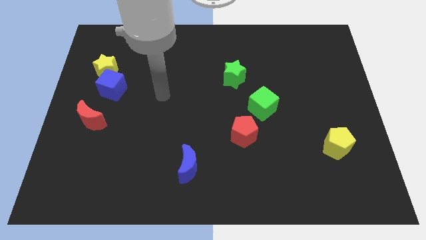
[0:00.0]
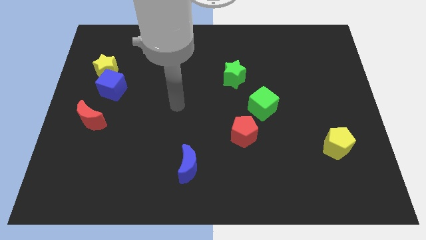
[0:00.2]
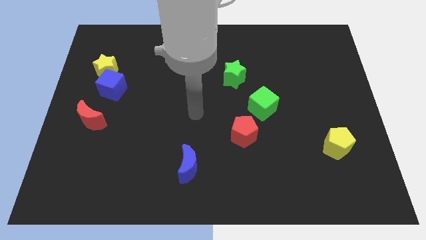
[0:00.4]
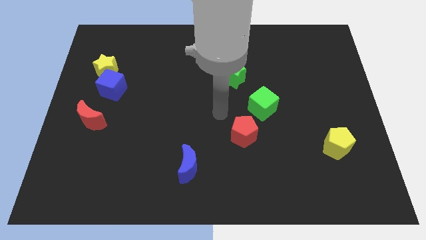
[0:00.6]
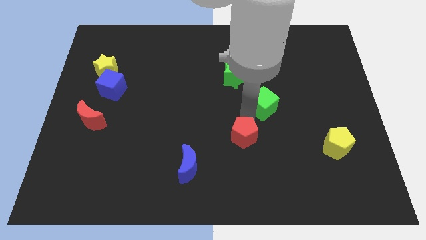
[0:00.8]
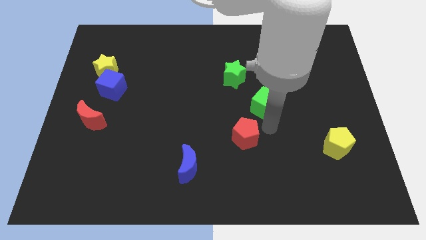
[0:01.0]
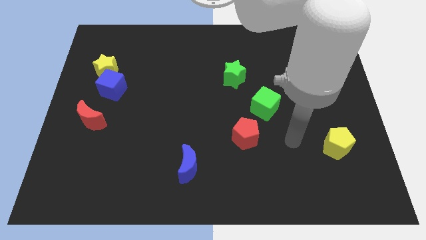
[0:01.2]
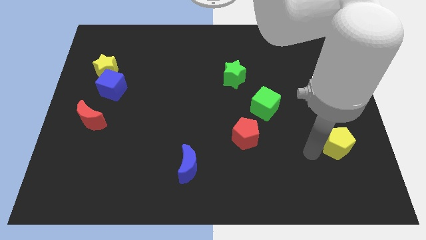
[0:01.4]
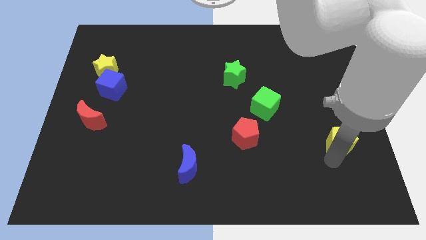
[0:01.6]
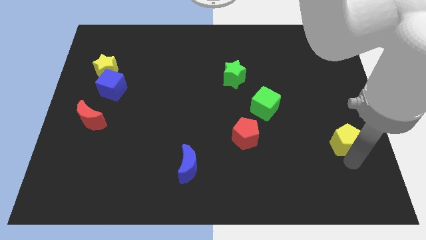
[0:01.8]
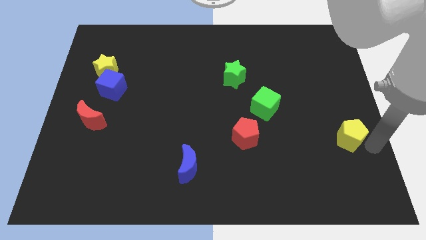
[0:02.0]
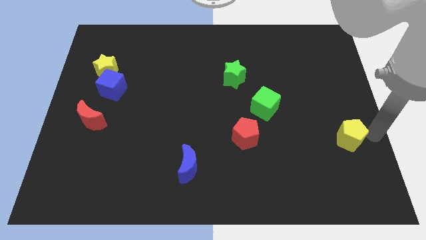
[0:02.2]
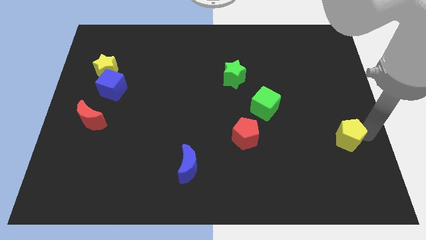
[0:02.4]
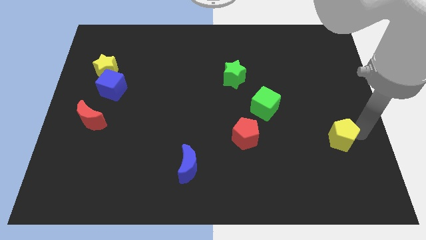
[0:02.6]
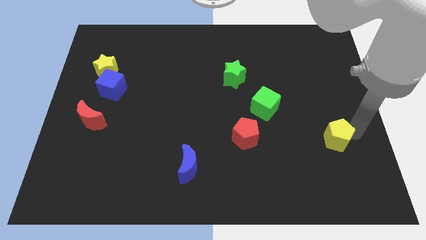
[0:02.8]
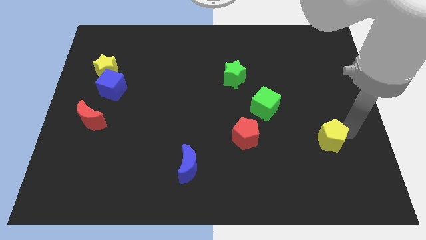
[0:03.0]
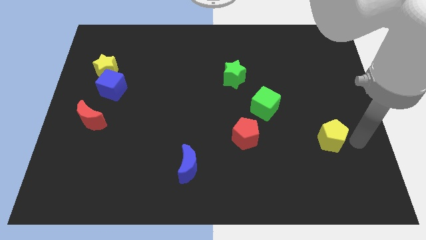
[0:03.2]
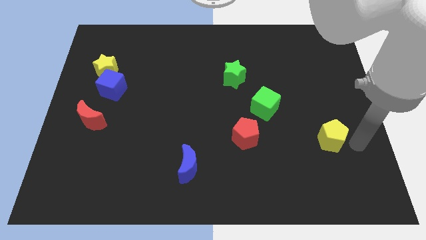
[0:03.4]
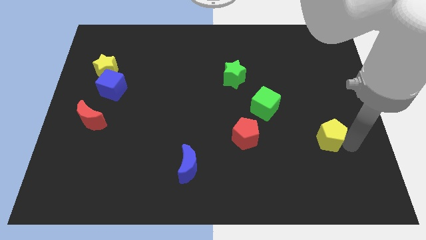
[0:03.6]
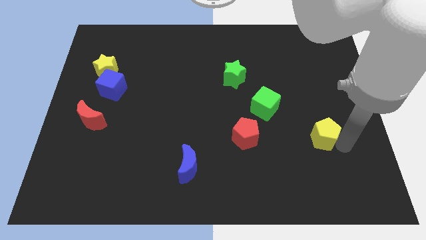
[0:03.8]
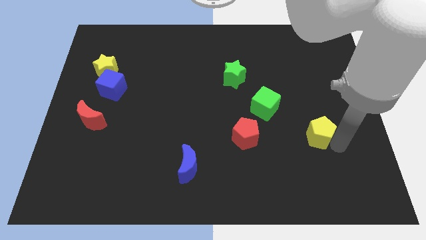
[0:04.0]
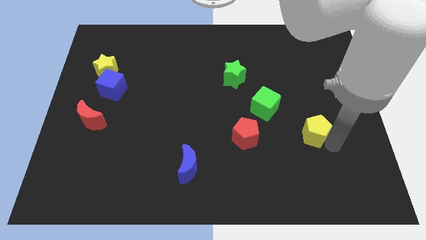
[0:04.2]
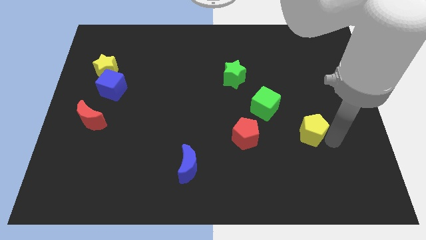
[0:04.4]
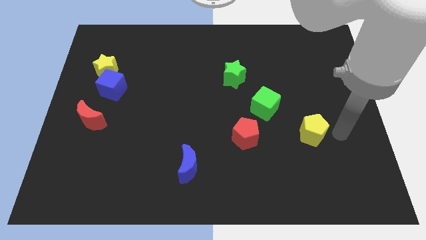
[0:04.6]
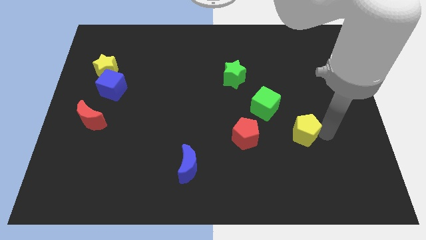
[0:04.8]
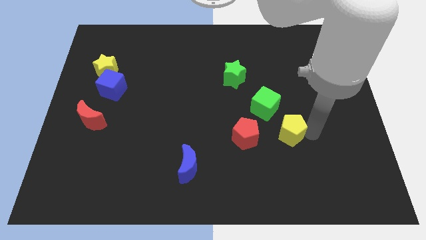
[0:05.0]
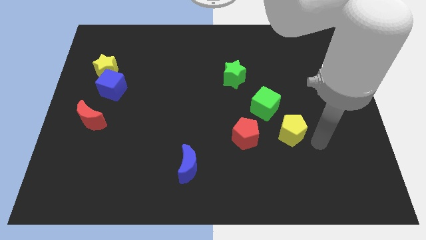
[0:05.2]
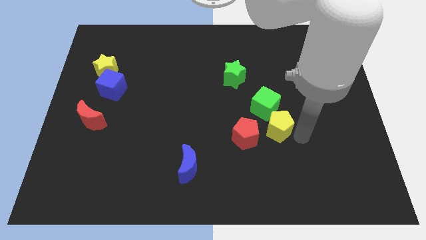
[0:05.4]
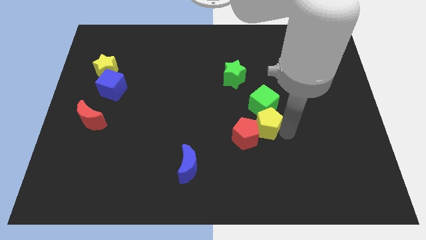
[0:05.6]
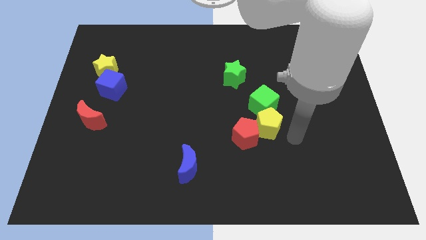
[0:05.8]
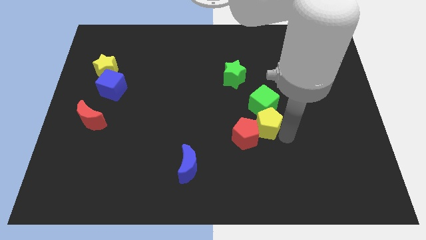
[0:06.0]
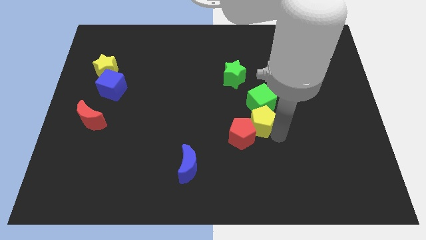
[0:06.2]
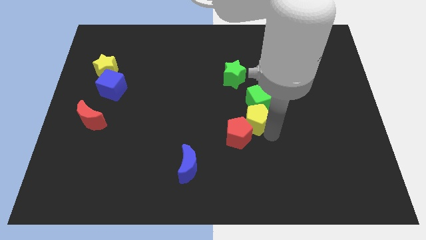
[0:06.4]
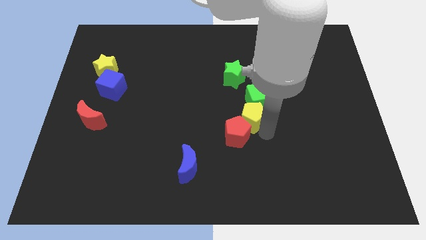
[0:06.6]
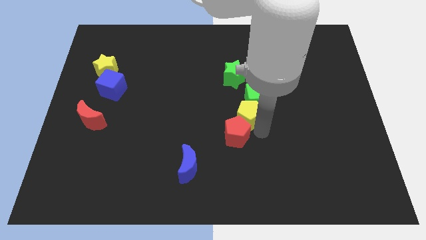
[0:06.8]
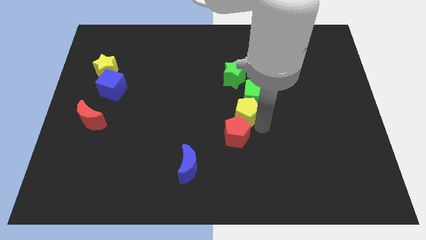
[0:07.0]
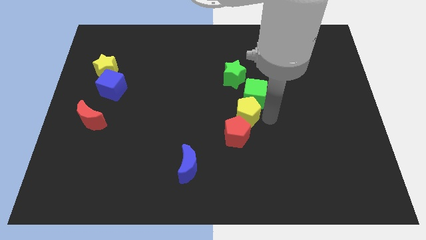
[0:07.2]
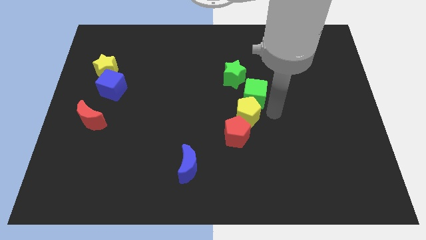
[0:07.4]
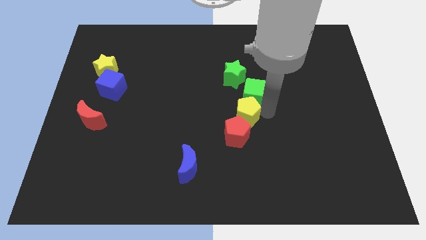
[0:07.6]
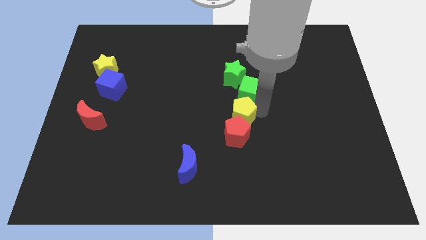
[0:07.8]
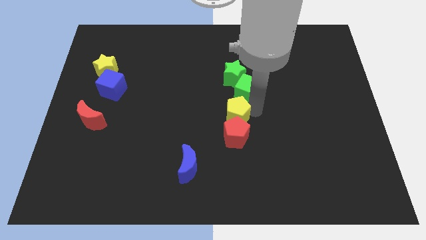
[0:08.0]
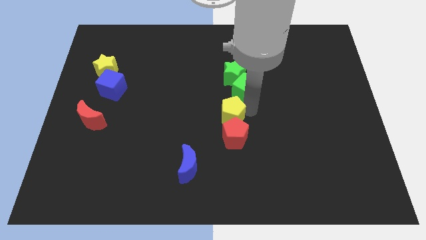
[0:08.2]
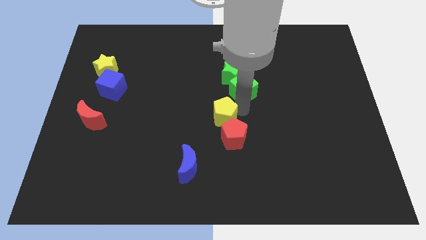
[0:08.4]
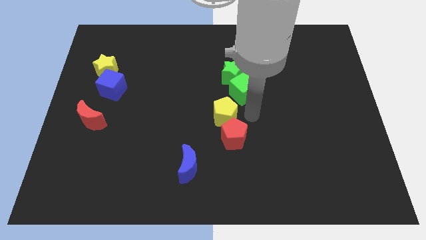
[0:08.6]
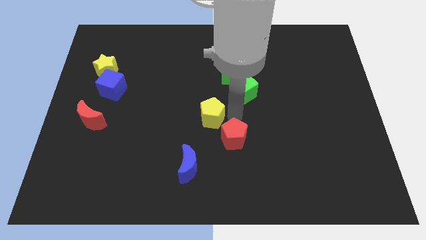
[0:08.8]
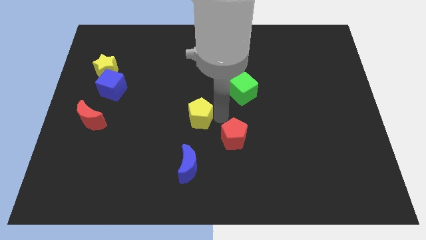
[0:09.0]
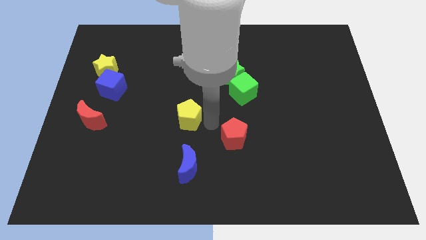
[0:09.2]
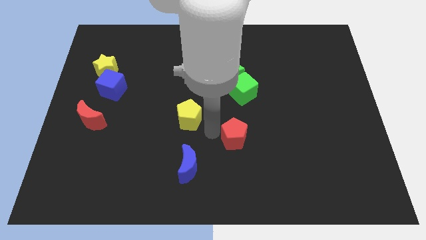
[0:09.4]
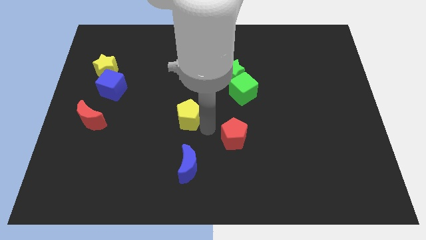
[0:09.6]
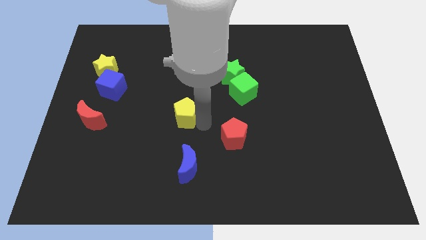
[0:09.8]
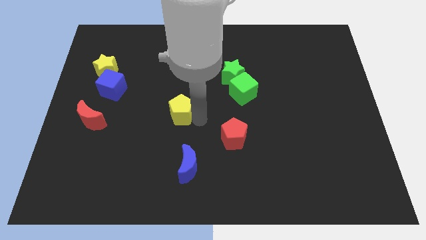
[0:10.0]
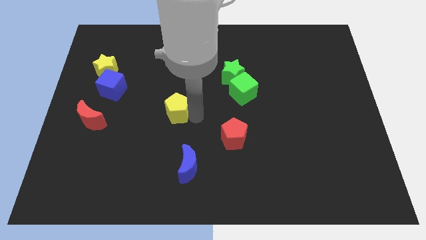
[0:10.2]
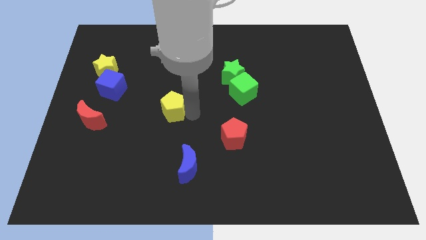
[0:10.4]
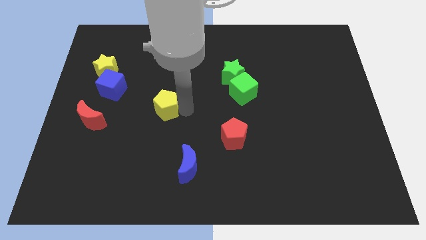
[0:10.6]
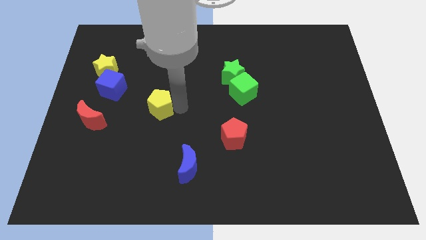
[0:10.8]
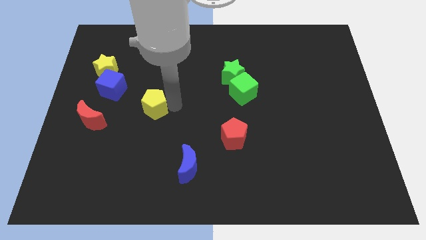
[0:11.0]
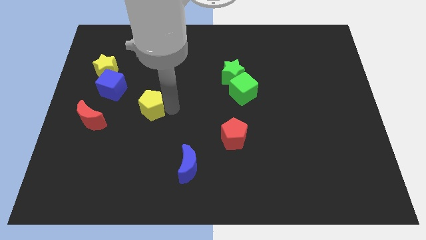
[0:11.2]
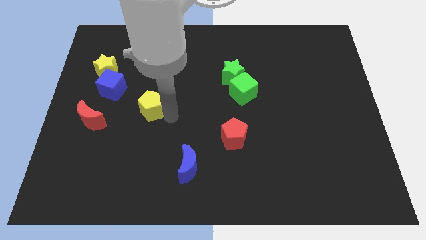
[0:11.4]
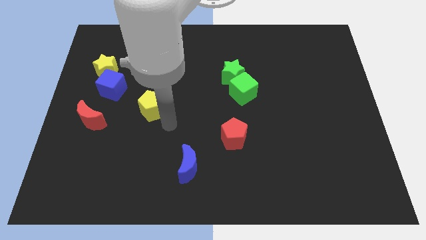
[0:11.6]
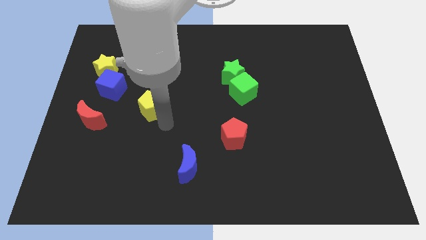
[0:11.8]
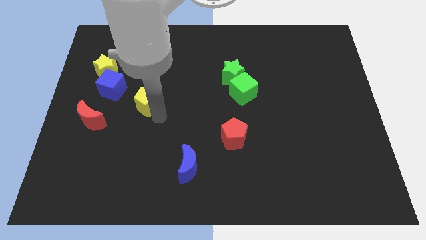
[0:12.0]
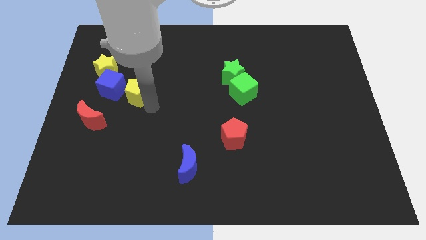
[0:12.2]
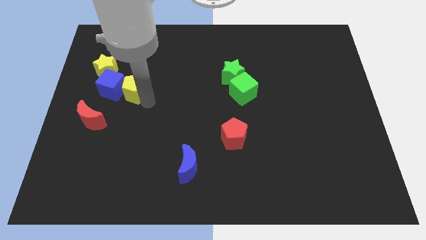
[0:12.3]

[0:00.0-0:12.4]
put the yellow pentagon to the blue cube

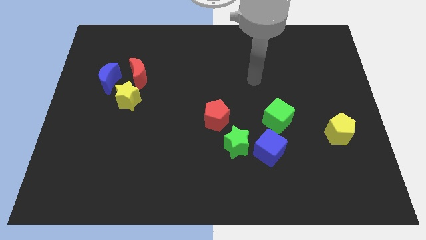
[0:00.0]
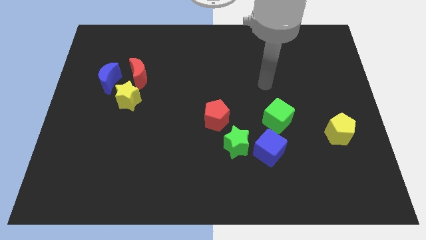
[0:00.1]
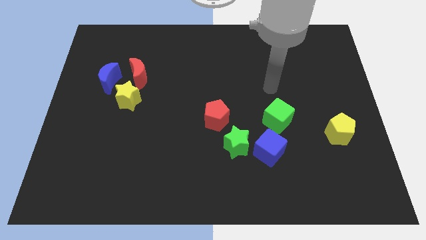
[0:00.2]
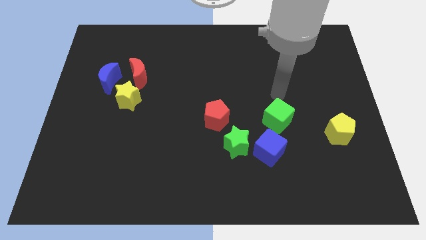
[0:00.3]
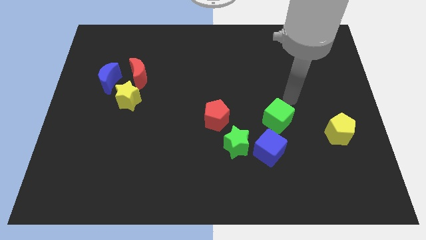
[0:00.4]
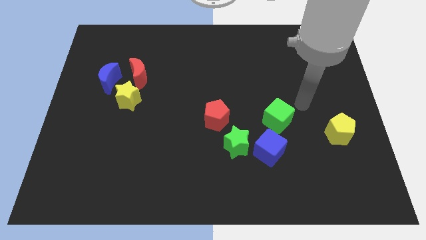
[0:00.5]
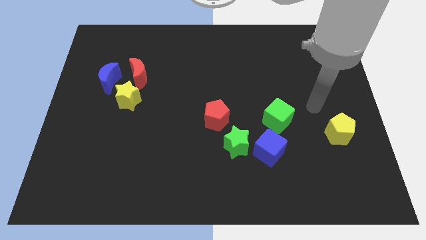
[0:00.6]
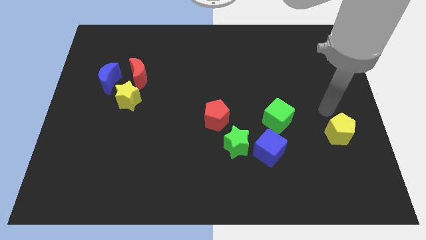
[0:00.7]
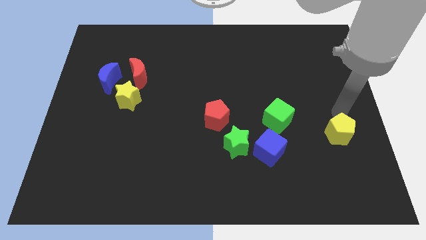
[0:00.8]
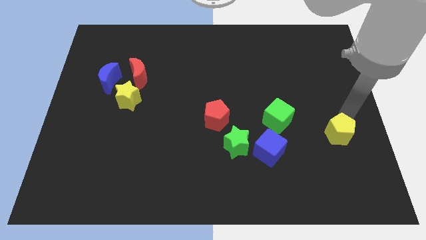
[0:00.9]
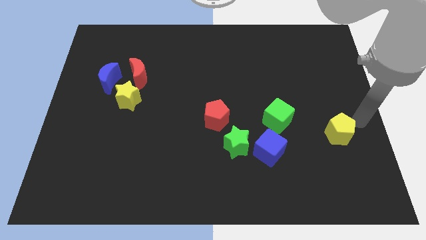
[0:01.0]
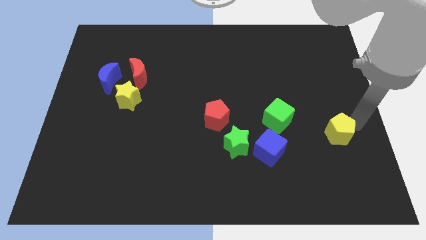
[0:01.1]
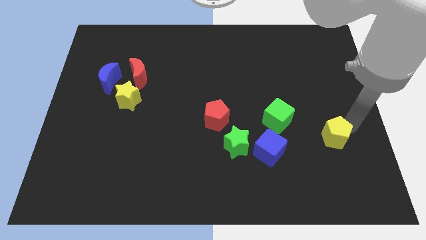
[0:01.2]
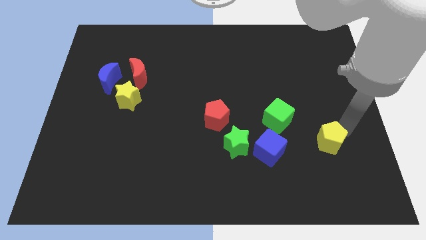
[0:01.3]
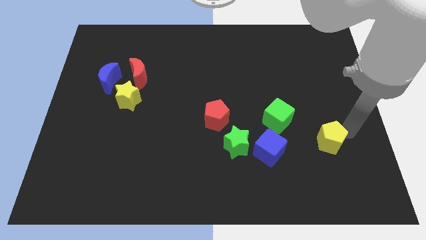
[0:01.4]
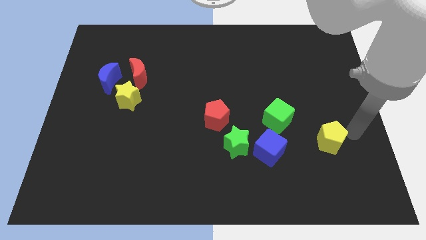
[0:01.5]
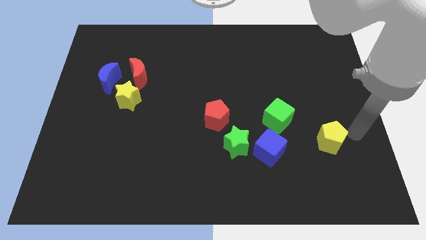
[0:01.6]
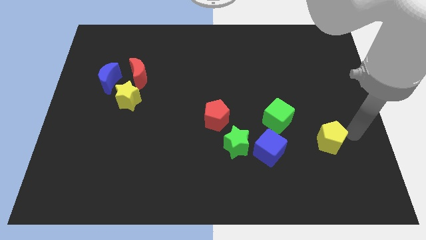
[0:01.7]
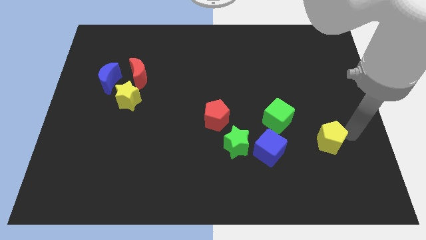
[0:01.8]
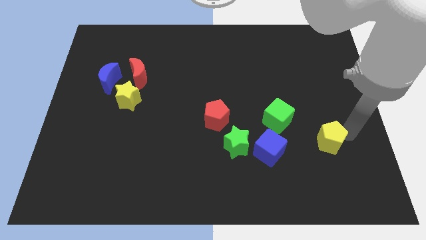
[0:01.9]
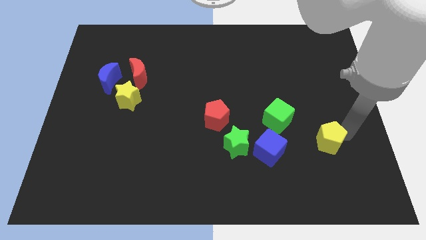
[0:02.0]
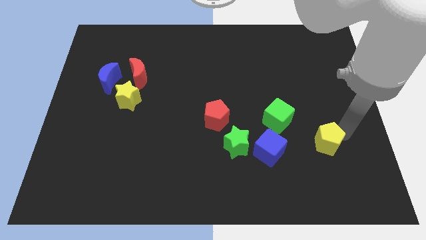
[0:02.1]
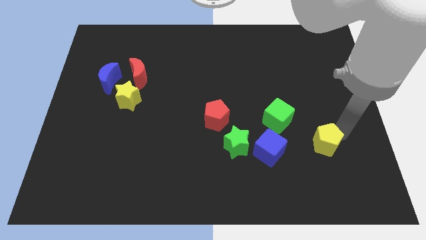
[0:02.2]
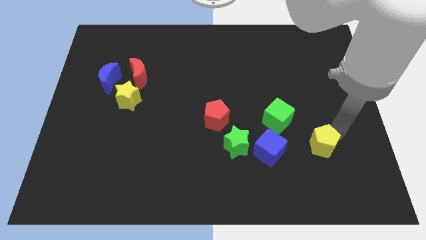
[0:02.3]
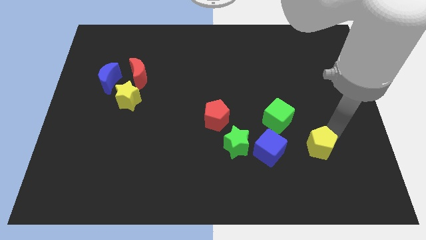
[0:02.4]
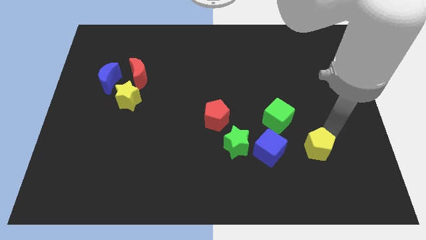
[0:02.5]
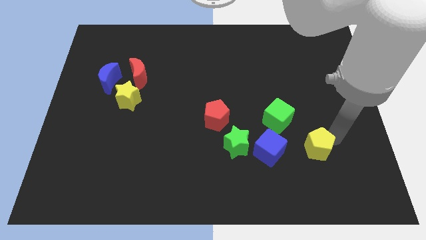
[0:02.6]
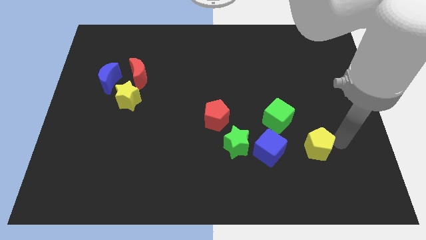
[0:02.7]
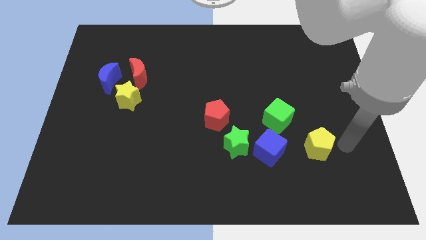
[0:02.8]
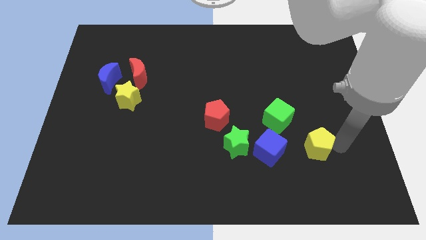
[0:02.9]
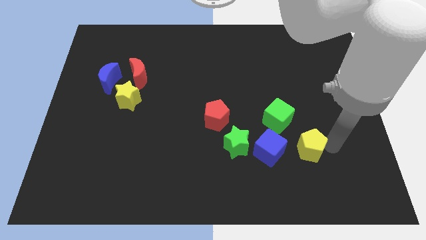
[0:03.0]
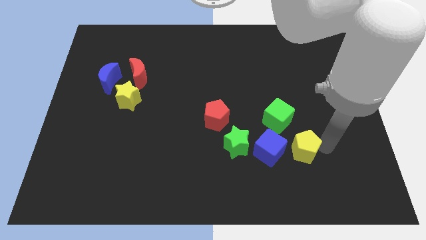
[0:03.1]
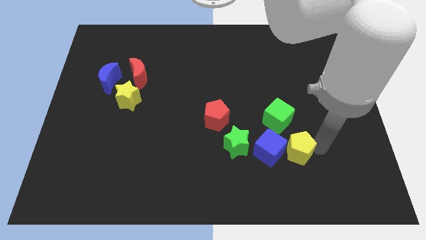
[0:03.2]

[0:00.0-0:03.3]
push the yellow pentagon to the blue cube
